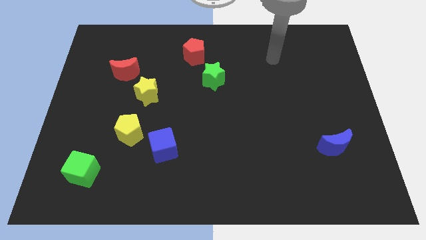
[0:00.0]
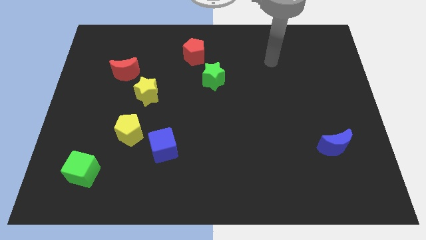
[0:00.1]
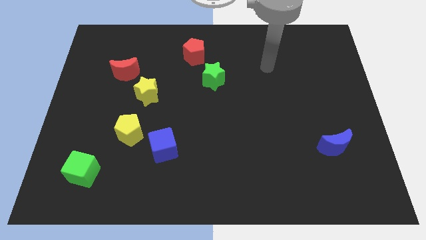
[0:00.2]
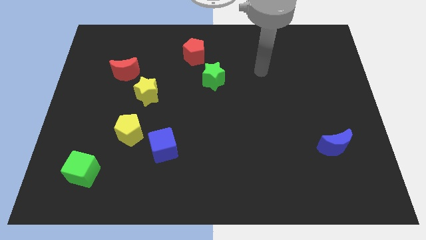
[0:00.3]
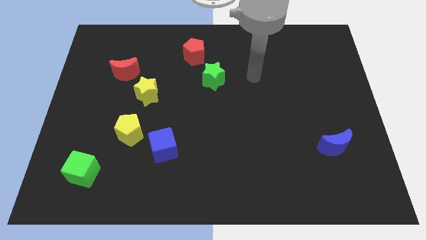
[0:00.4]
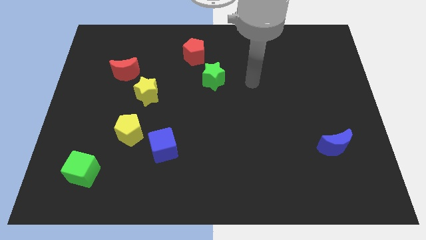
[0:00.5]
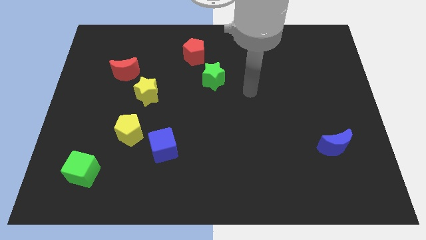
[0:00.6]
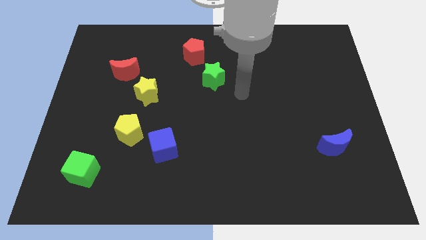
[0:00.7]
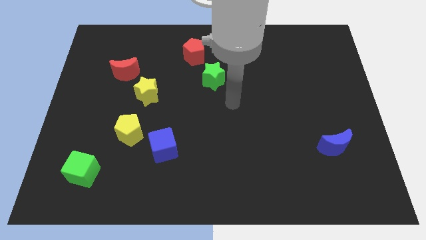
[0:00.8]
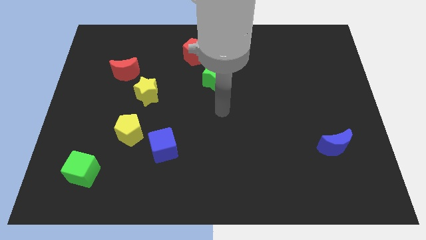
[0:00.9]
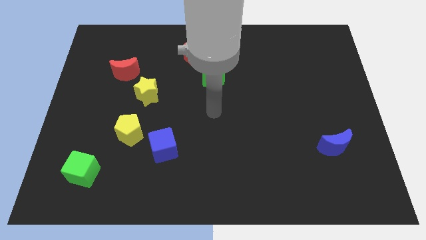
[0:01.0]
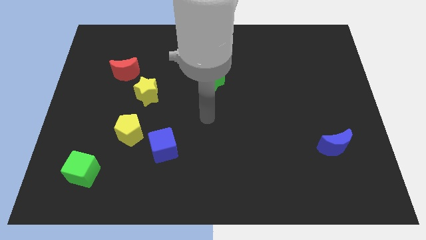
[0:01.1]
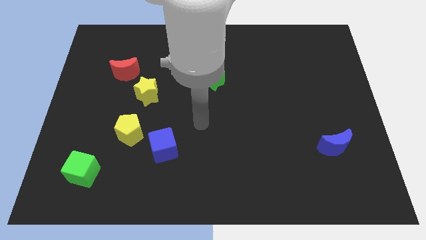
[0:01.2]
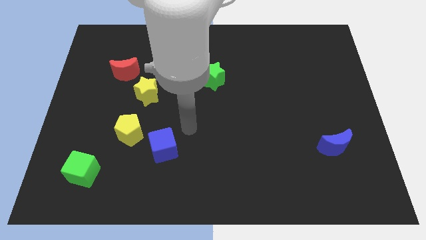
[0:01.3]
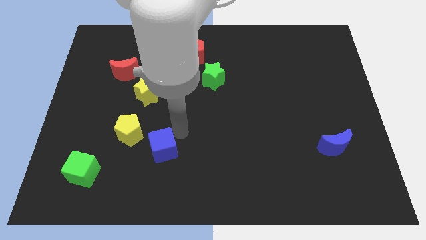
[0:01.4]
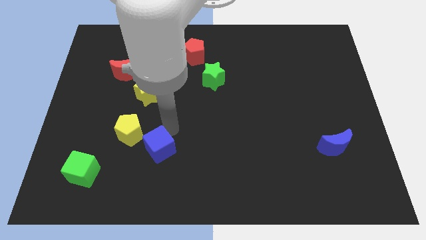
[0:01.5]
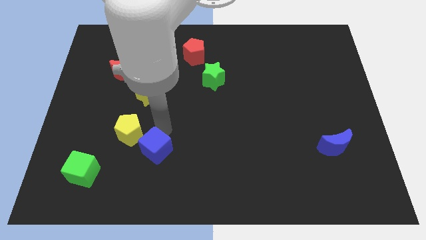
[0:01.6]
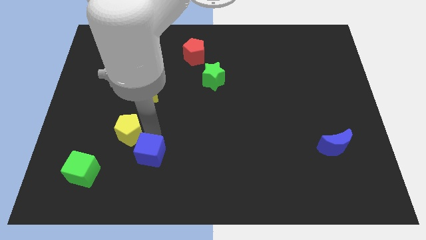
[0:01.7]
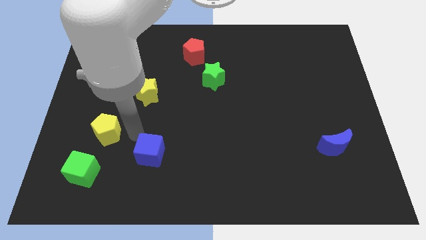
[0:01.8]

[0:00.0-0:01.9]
separate the blue cube from the yellow pentagon

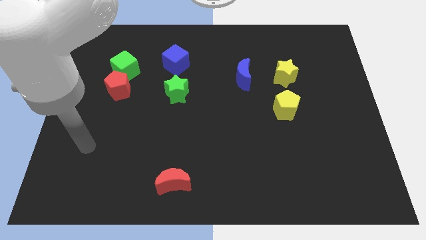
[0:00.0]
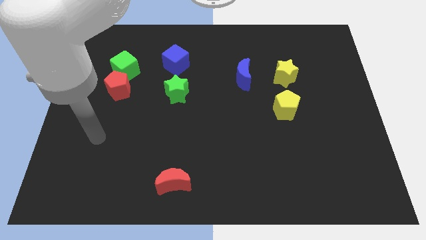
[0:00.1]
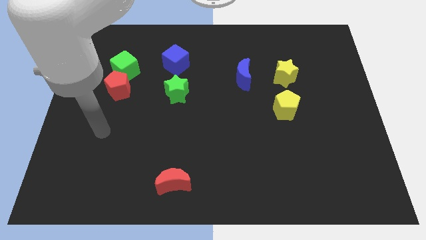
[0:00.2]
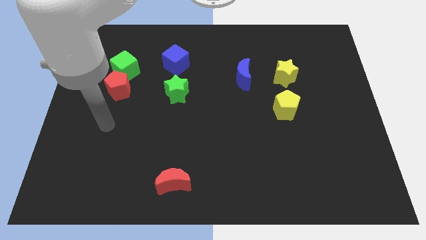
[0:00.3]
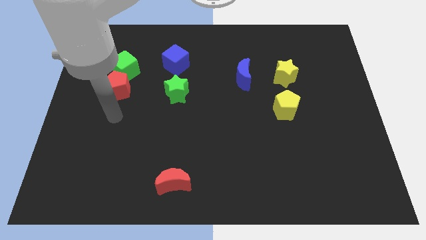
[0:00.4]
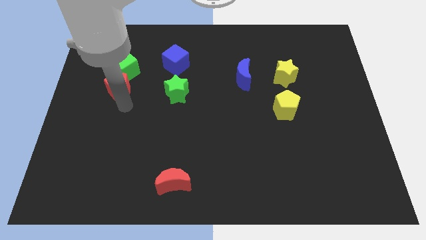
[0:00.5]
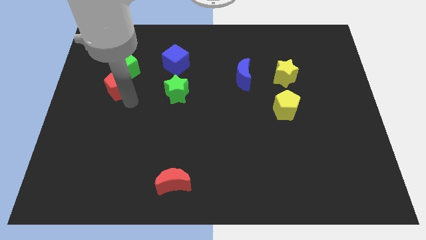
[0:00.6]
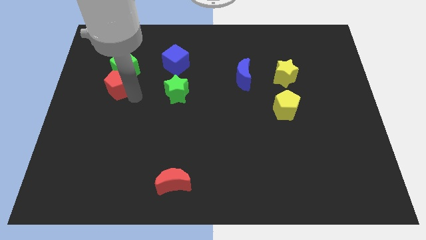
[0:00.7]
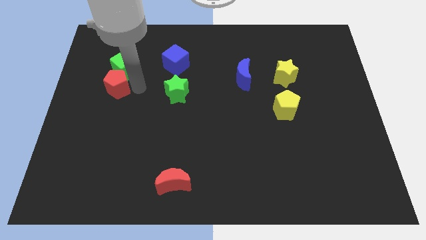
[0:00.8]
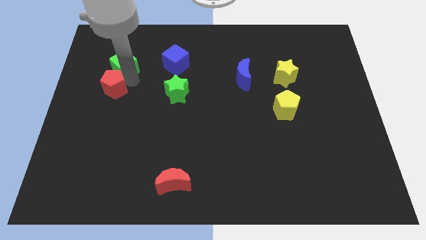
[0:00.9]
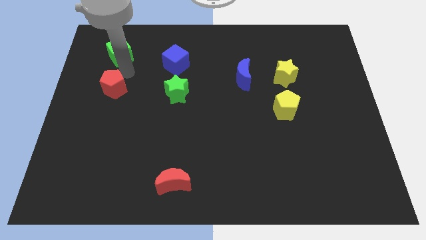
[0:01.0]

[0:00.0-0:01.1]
move the red pentagon away from the green cube

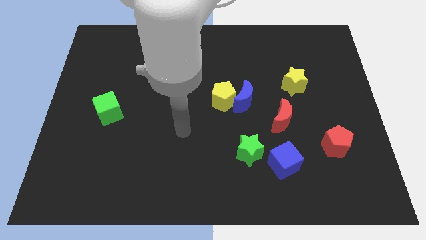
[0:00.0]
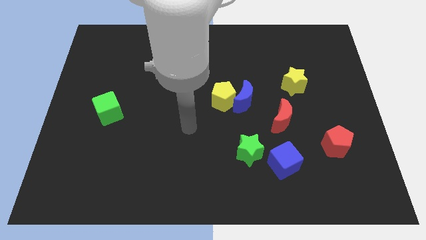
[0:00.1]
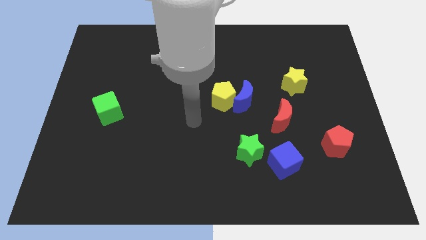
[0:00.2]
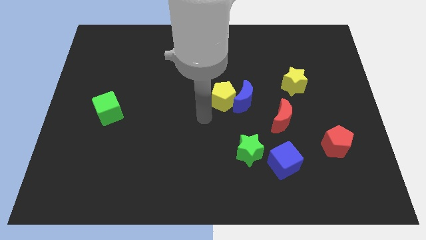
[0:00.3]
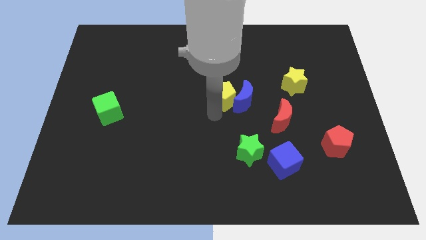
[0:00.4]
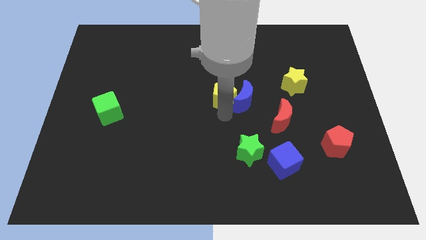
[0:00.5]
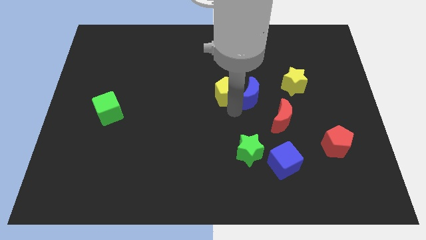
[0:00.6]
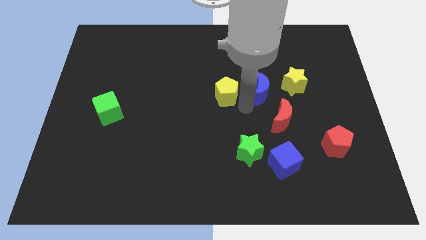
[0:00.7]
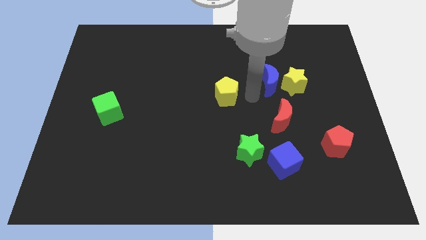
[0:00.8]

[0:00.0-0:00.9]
separate the yellow pentagon from the blue moon

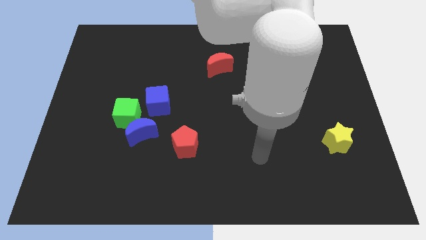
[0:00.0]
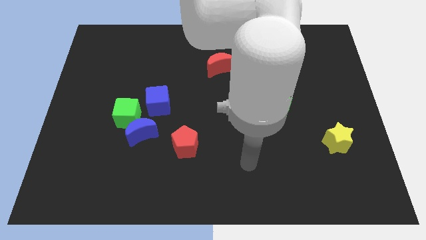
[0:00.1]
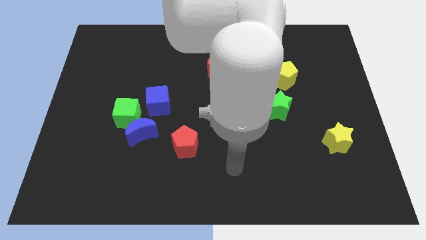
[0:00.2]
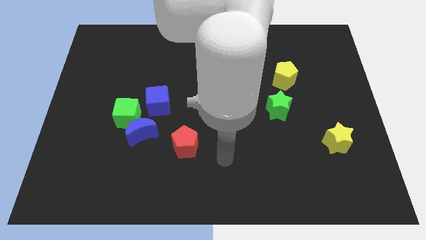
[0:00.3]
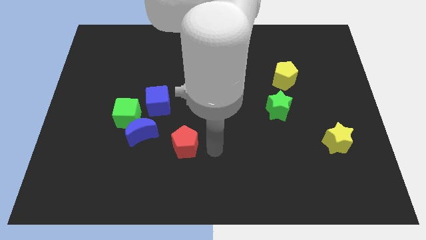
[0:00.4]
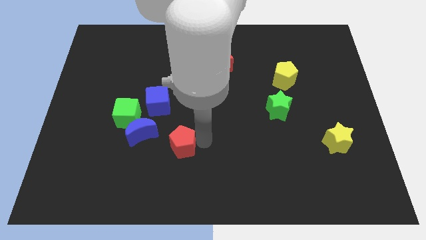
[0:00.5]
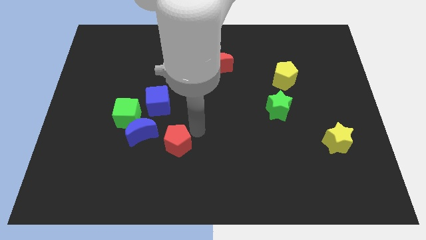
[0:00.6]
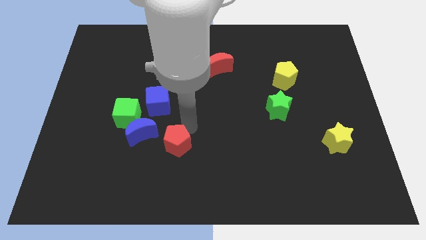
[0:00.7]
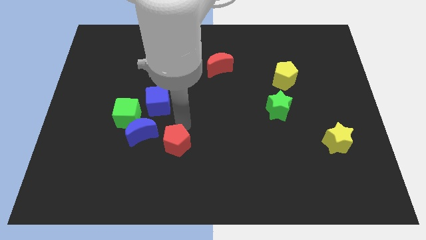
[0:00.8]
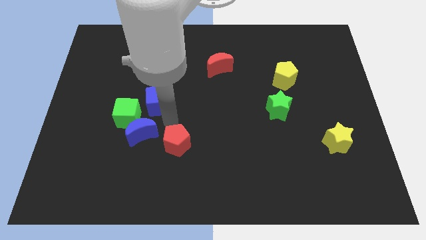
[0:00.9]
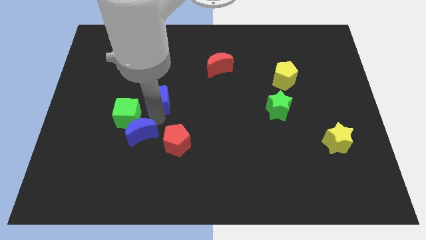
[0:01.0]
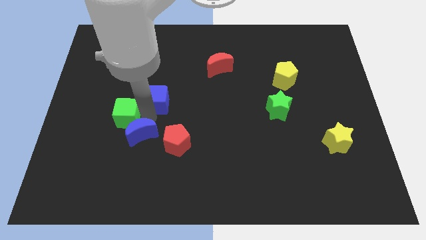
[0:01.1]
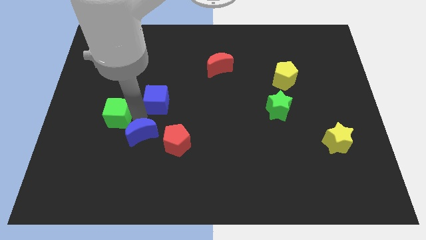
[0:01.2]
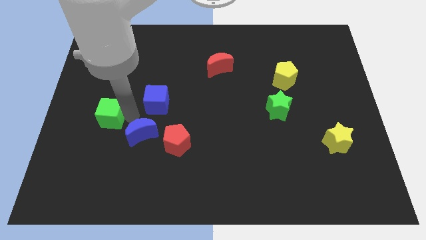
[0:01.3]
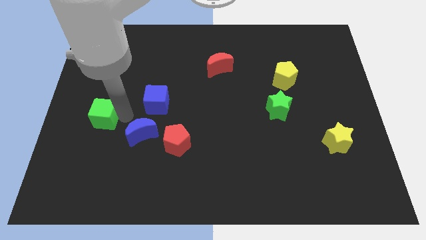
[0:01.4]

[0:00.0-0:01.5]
pull the green cube apart from the blue moon and blue cube

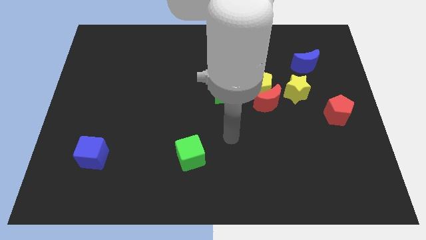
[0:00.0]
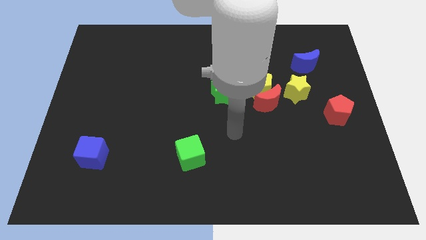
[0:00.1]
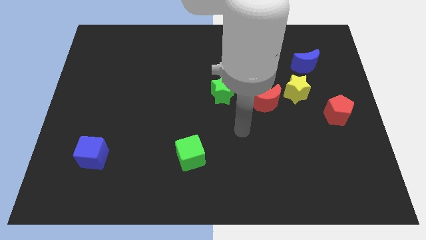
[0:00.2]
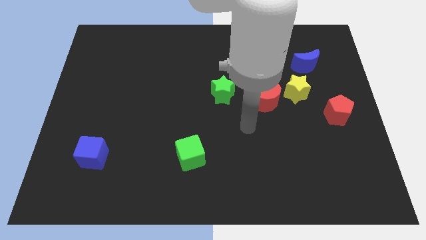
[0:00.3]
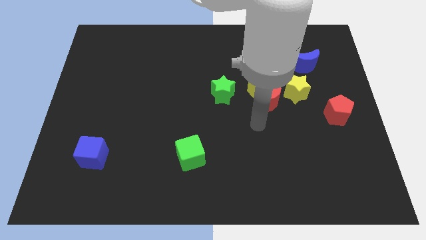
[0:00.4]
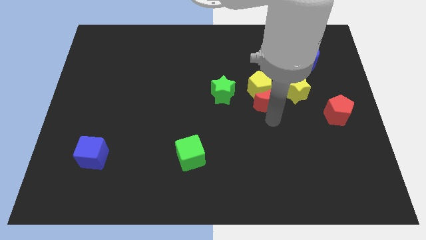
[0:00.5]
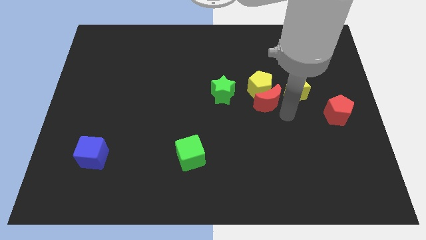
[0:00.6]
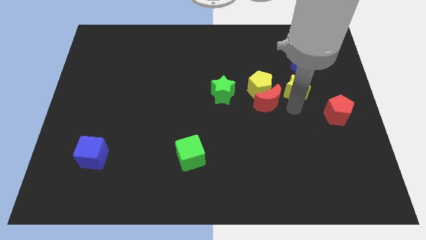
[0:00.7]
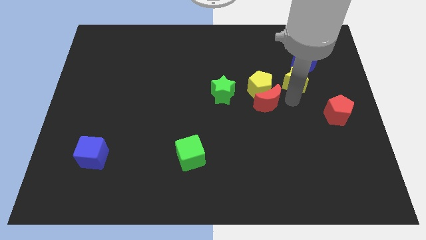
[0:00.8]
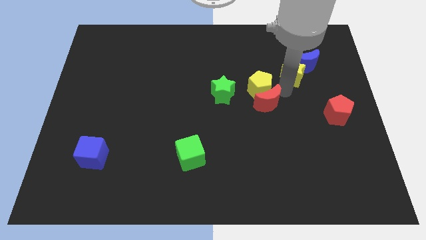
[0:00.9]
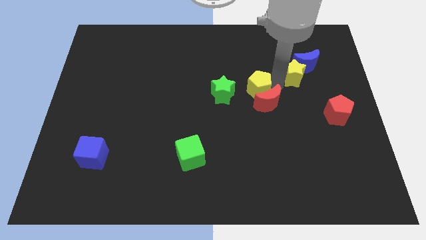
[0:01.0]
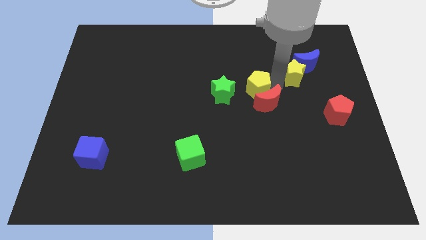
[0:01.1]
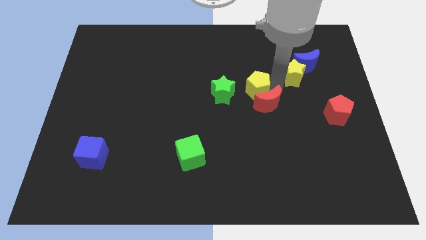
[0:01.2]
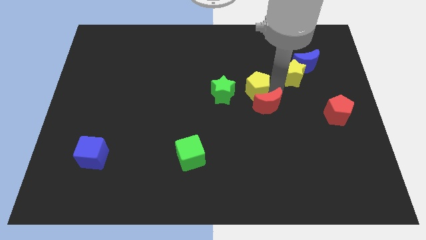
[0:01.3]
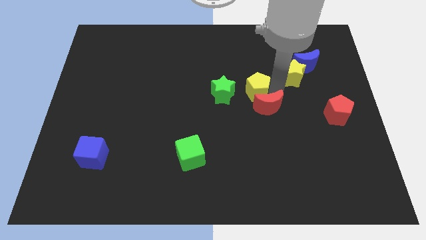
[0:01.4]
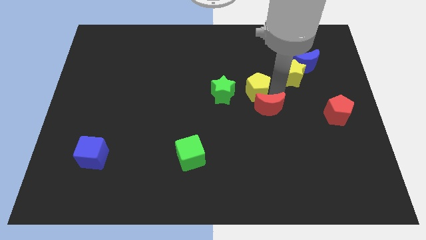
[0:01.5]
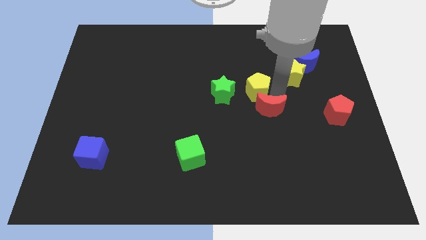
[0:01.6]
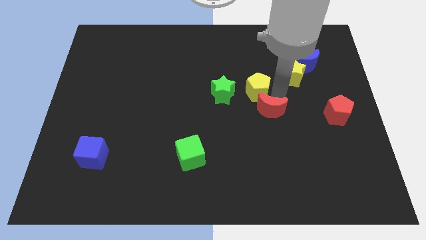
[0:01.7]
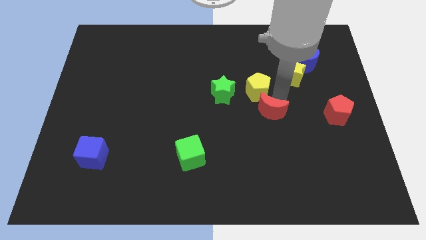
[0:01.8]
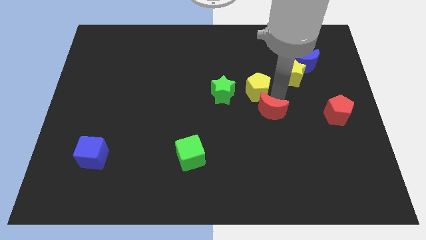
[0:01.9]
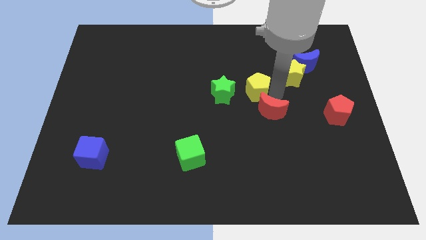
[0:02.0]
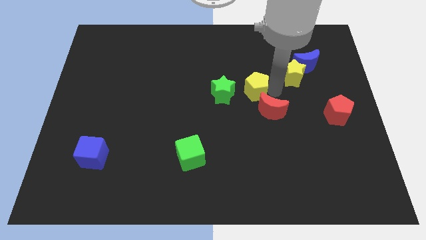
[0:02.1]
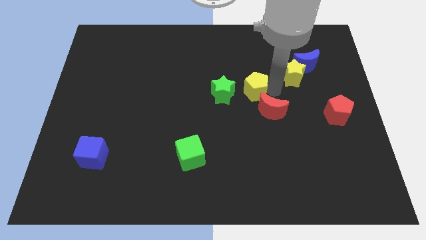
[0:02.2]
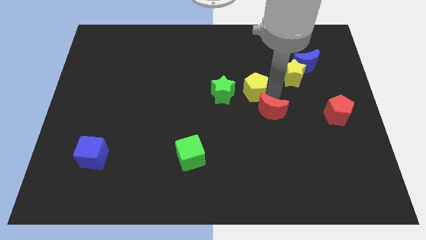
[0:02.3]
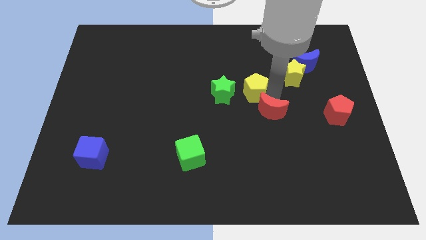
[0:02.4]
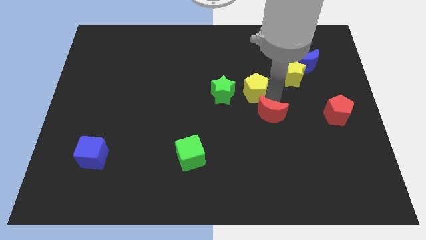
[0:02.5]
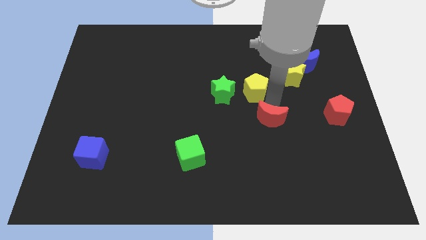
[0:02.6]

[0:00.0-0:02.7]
pull the red moon apart from the yellow pentagon and yellow star

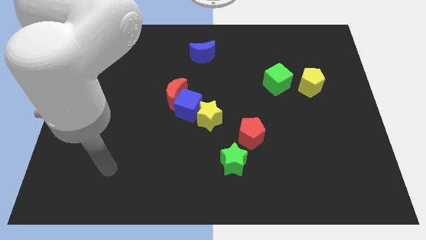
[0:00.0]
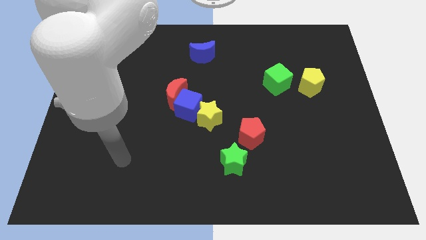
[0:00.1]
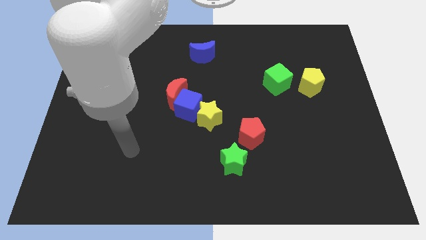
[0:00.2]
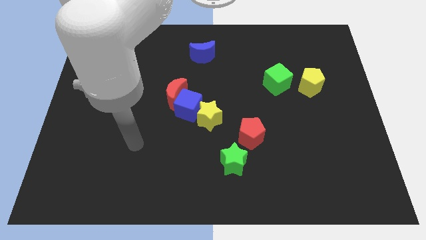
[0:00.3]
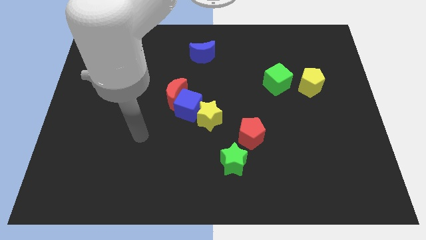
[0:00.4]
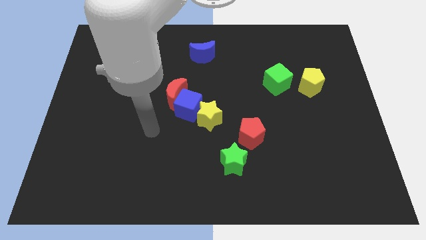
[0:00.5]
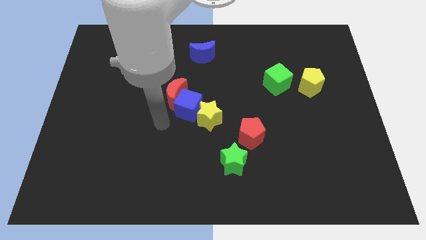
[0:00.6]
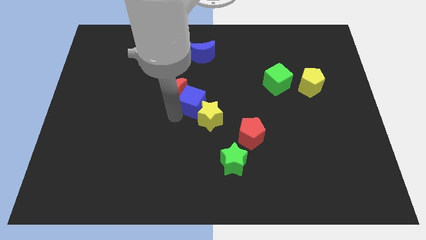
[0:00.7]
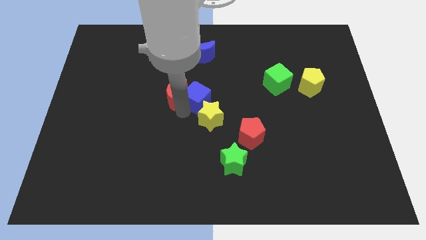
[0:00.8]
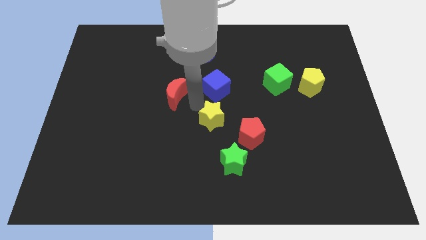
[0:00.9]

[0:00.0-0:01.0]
separate the red moon from the blue cube

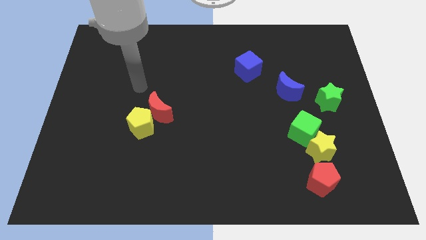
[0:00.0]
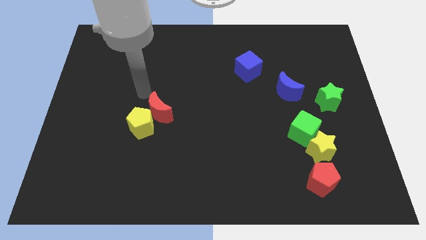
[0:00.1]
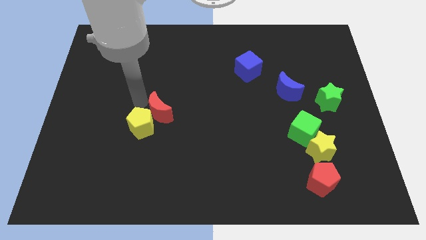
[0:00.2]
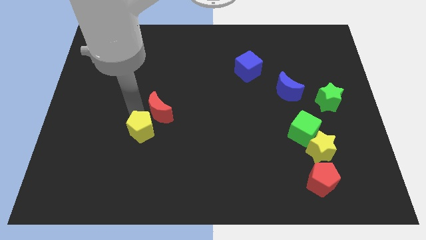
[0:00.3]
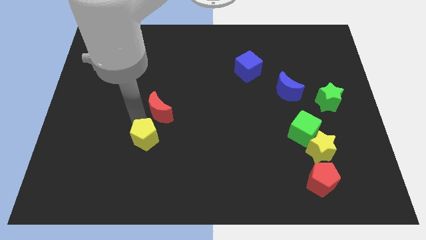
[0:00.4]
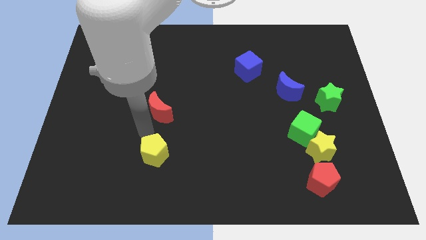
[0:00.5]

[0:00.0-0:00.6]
pull the red moon apart from the yellow pentagon
